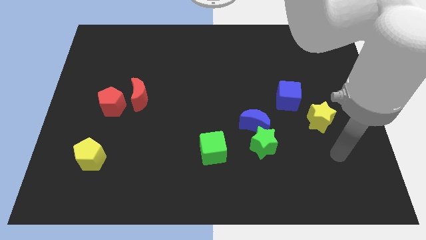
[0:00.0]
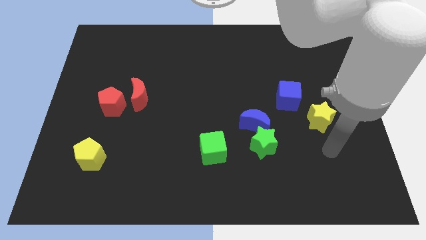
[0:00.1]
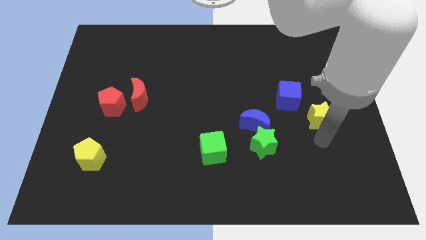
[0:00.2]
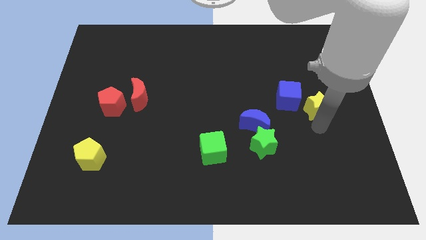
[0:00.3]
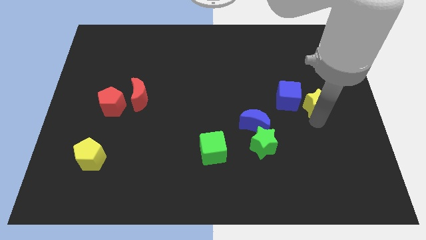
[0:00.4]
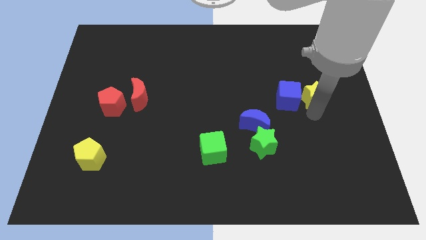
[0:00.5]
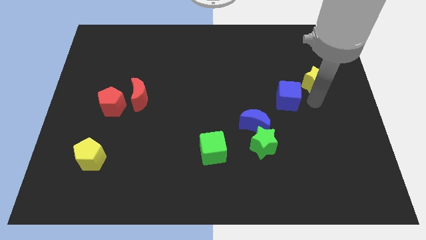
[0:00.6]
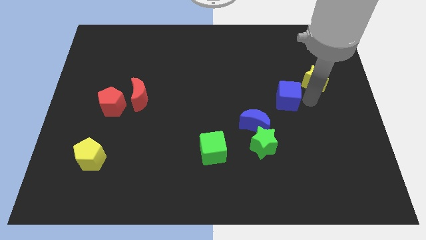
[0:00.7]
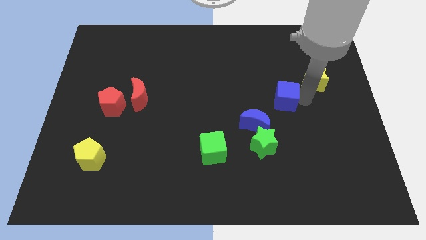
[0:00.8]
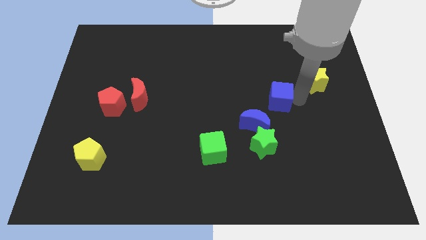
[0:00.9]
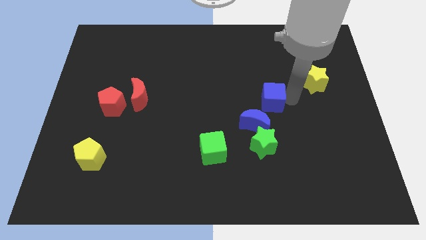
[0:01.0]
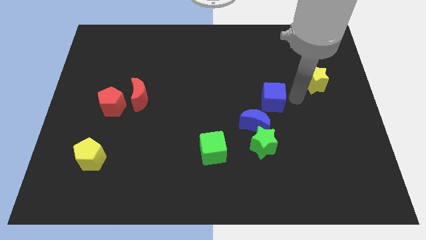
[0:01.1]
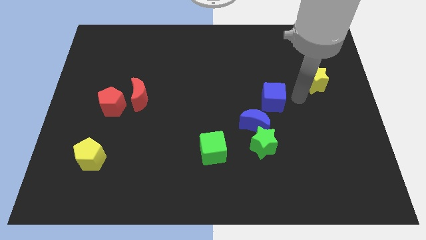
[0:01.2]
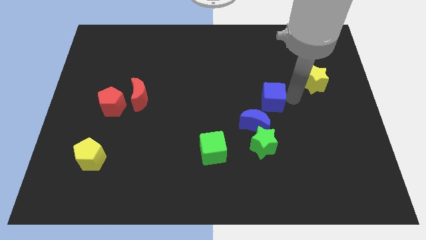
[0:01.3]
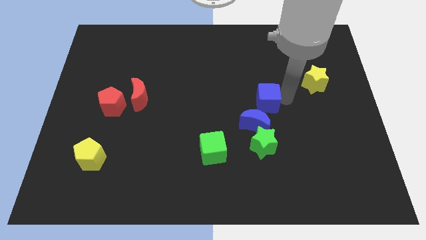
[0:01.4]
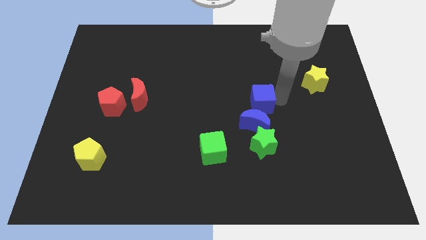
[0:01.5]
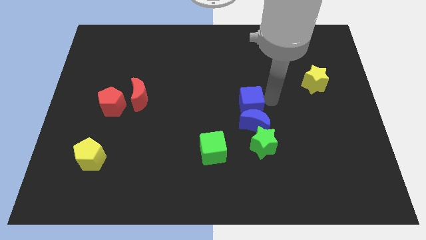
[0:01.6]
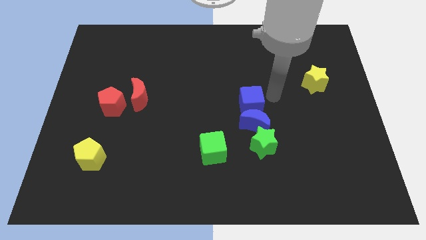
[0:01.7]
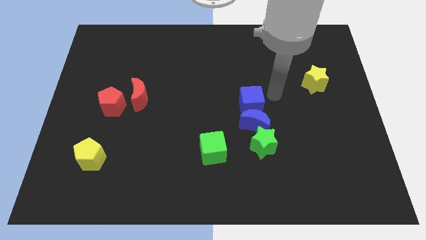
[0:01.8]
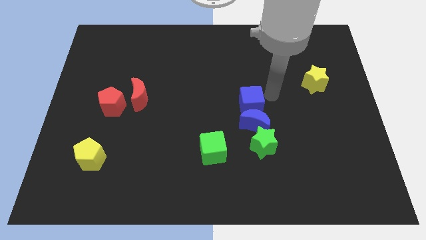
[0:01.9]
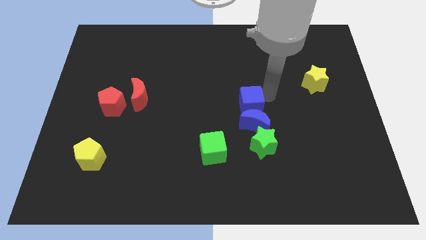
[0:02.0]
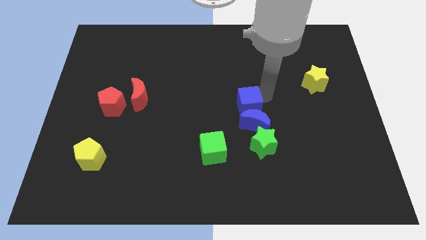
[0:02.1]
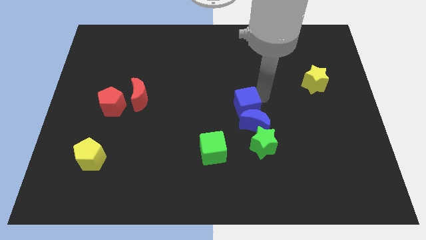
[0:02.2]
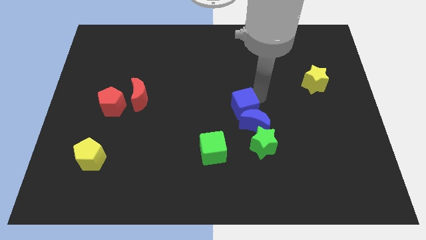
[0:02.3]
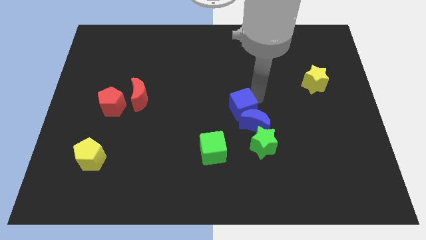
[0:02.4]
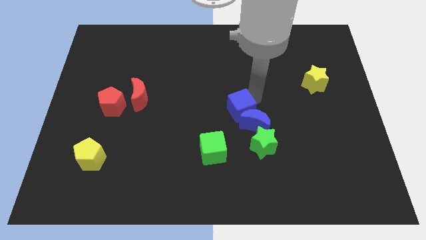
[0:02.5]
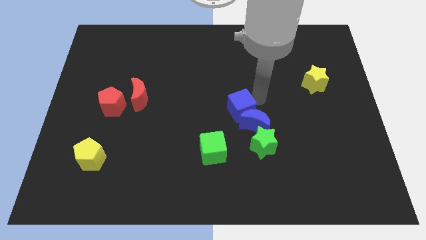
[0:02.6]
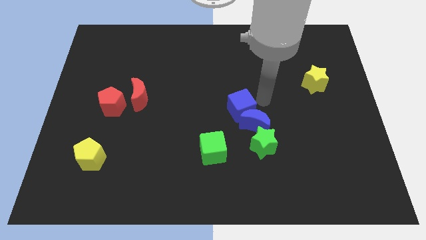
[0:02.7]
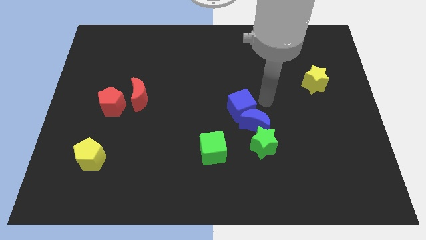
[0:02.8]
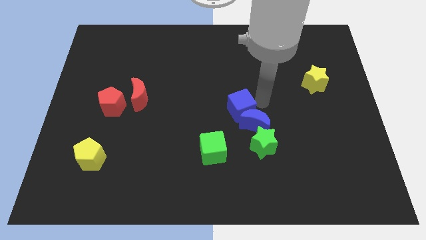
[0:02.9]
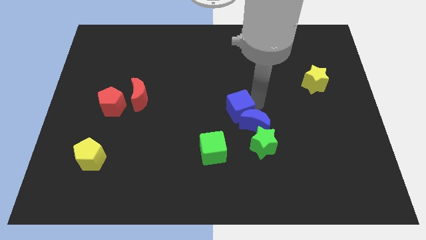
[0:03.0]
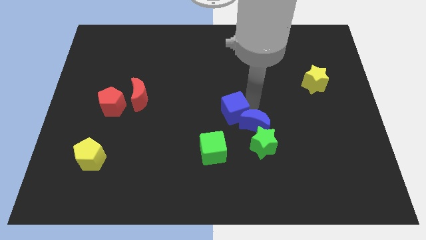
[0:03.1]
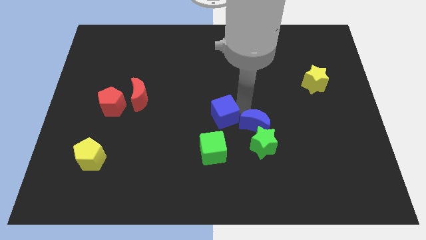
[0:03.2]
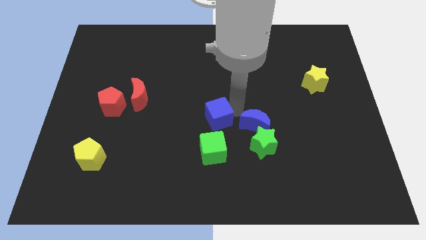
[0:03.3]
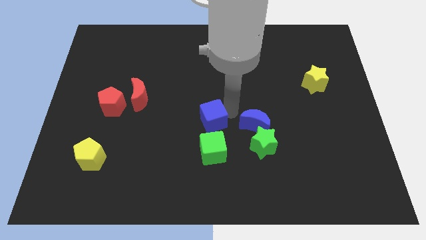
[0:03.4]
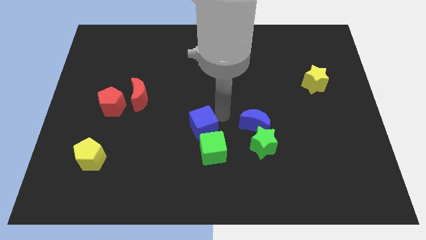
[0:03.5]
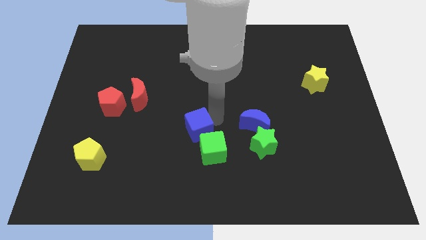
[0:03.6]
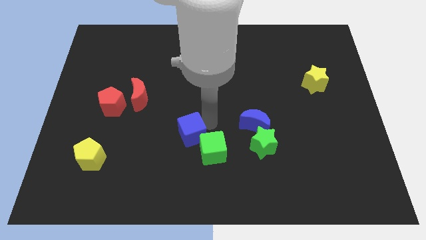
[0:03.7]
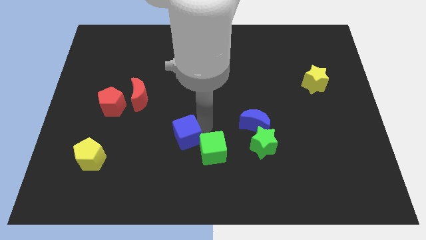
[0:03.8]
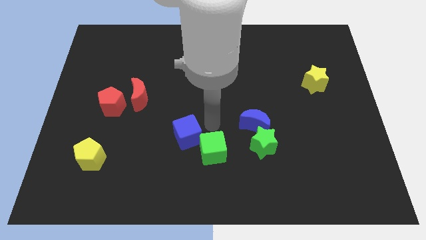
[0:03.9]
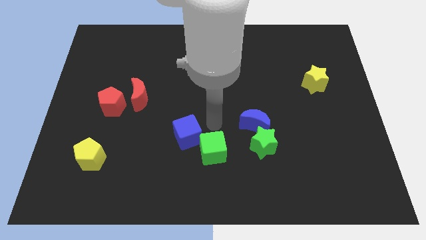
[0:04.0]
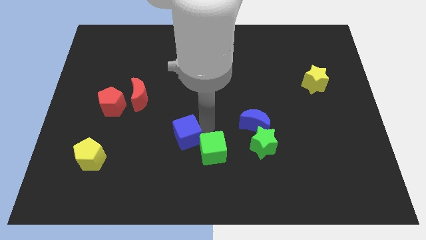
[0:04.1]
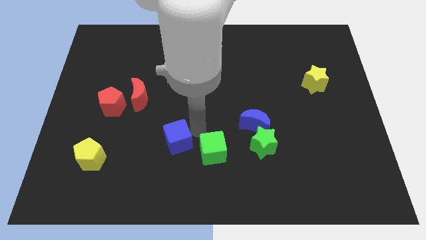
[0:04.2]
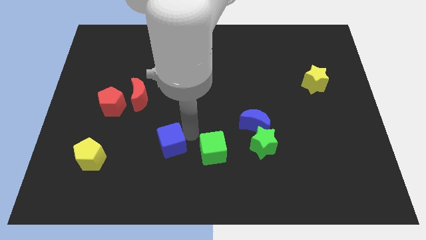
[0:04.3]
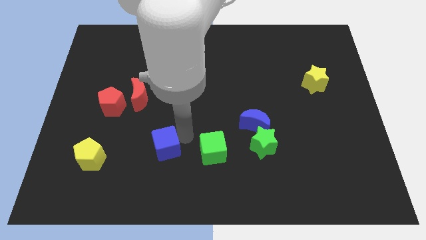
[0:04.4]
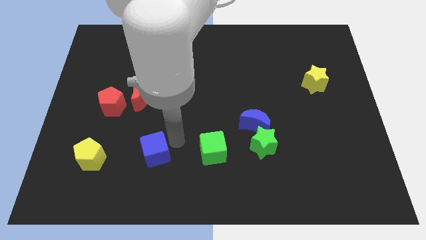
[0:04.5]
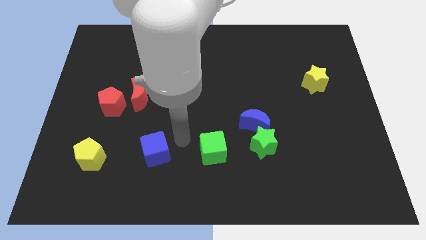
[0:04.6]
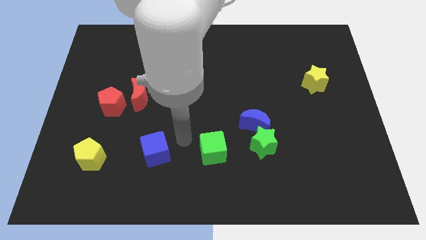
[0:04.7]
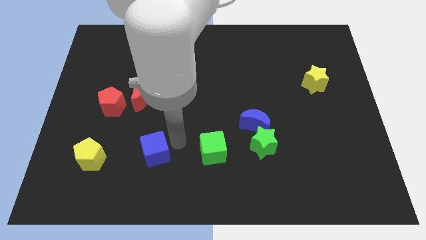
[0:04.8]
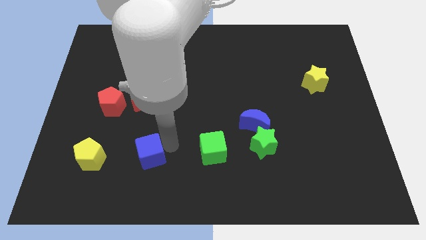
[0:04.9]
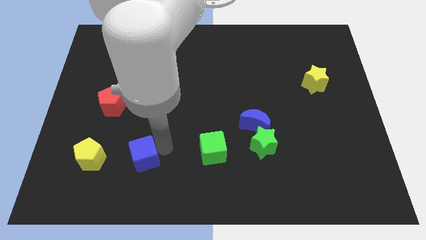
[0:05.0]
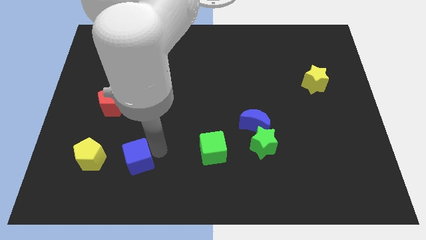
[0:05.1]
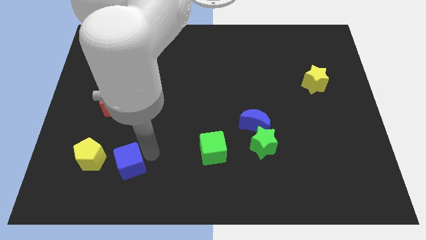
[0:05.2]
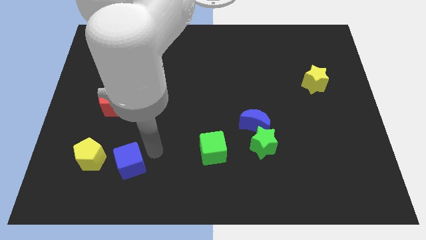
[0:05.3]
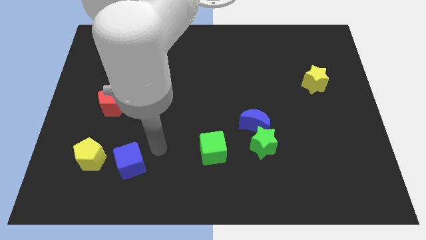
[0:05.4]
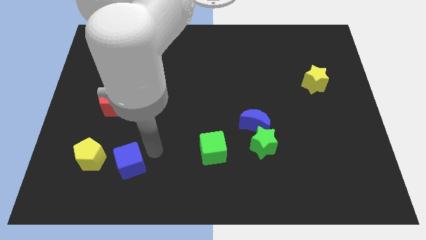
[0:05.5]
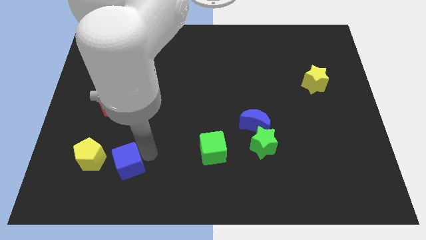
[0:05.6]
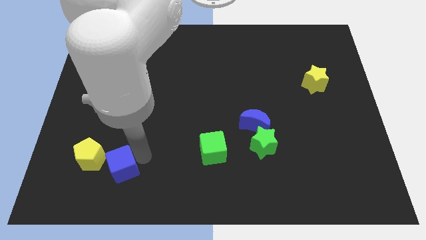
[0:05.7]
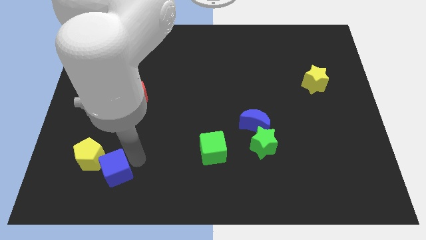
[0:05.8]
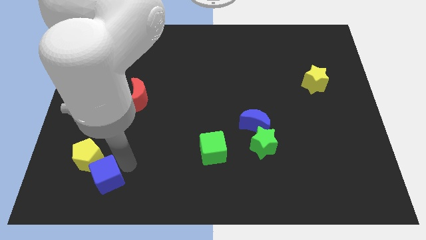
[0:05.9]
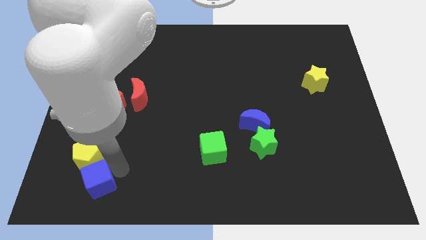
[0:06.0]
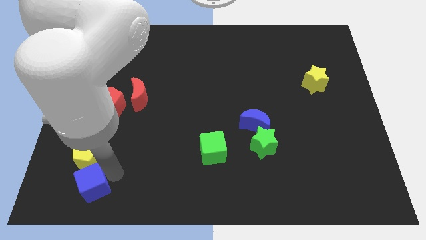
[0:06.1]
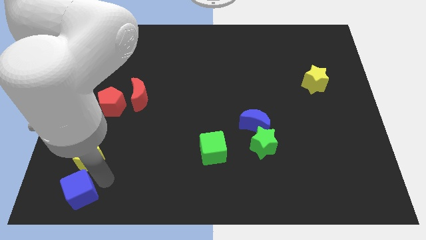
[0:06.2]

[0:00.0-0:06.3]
push the blue cube to the bottom left corner
